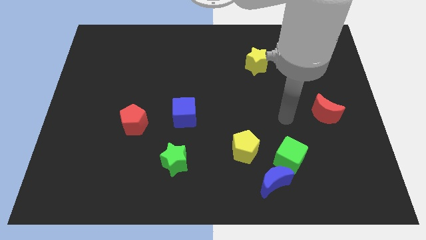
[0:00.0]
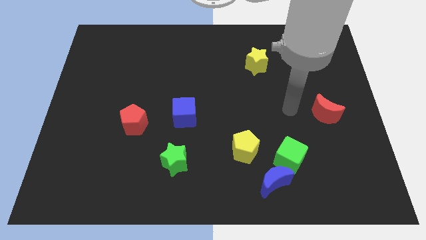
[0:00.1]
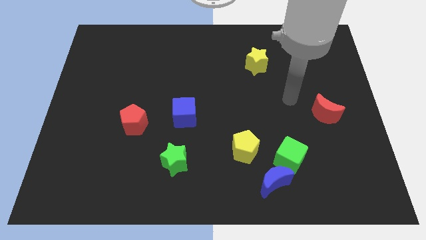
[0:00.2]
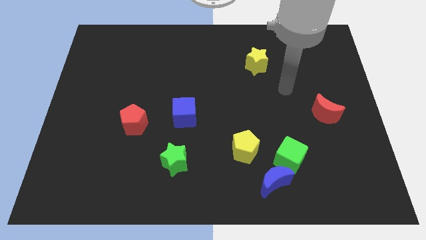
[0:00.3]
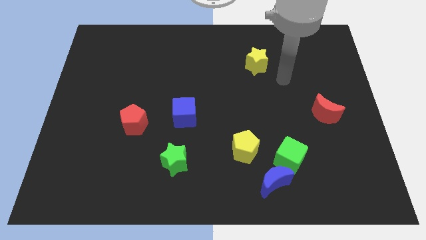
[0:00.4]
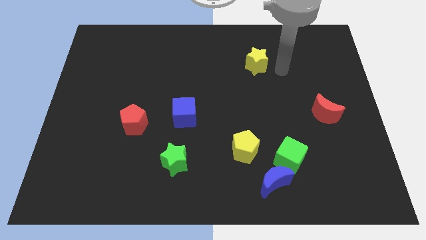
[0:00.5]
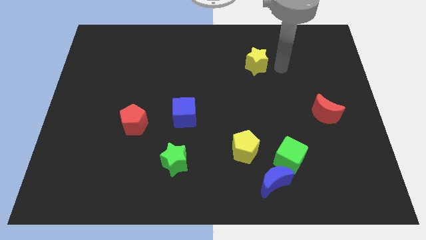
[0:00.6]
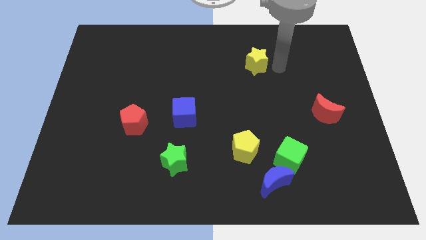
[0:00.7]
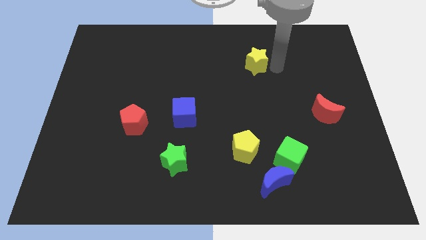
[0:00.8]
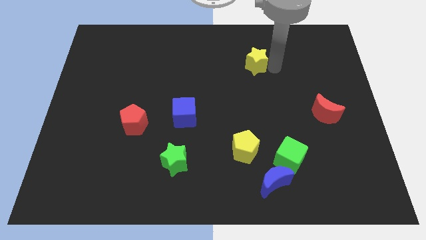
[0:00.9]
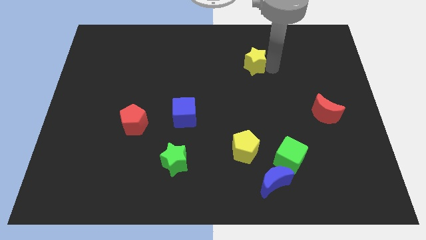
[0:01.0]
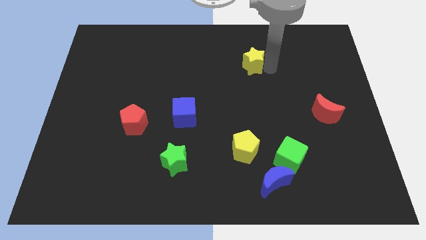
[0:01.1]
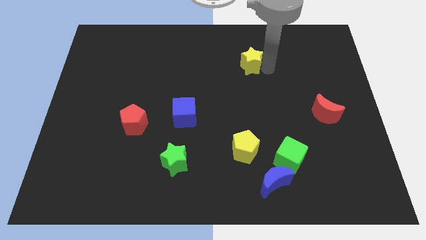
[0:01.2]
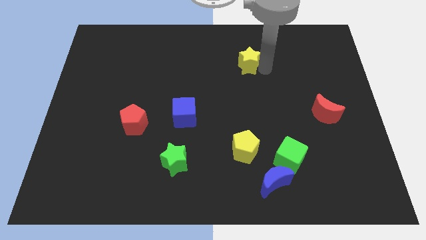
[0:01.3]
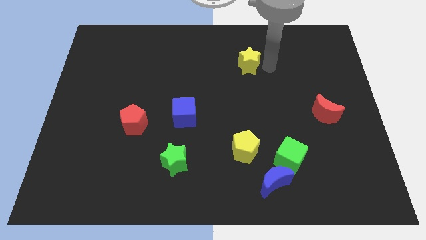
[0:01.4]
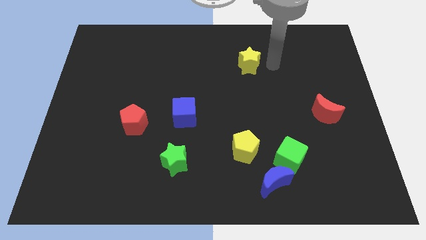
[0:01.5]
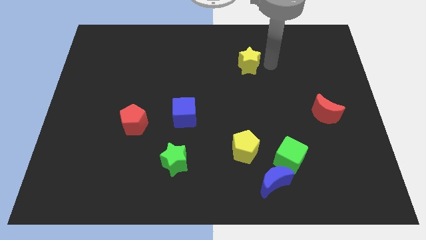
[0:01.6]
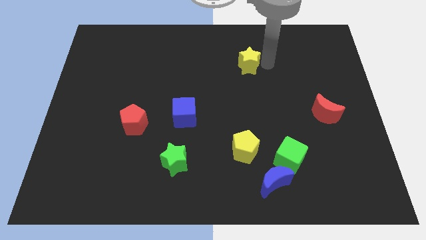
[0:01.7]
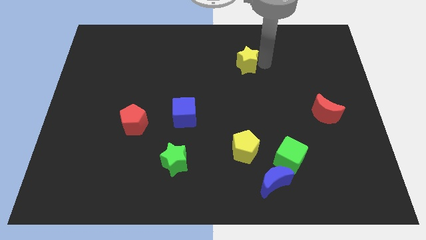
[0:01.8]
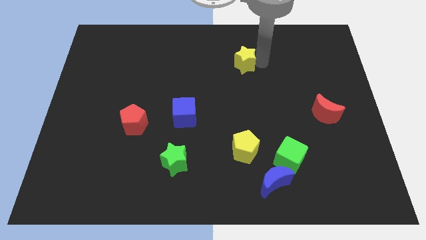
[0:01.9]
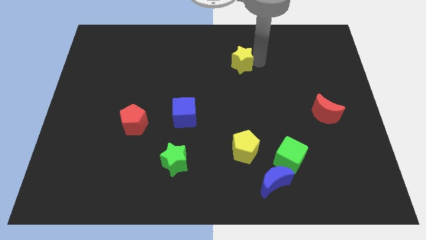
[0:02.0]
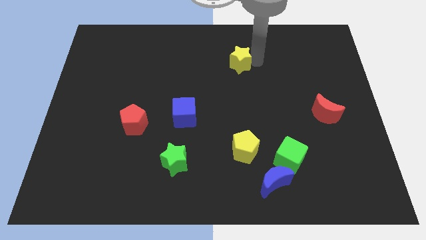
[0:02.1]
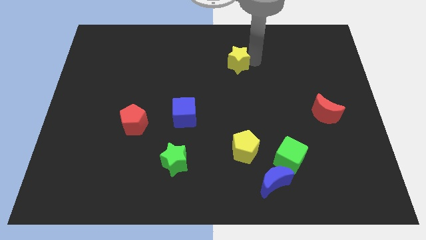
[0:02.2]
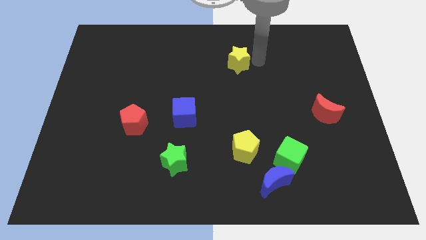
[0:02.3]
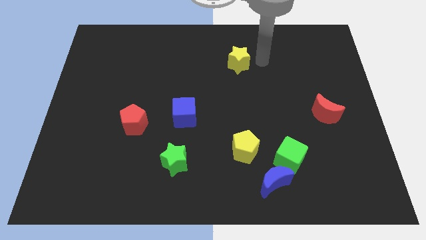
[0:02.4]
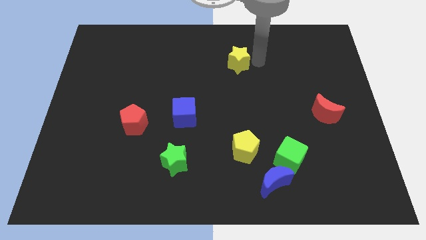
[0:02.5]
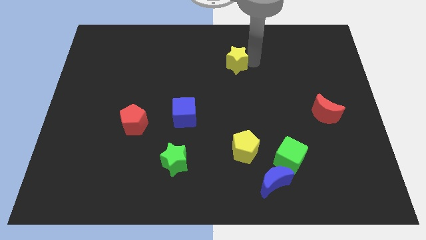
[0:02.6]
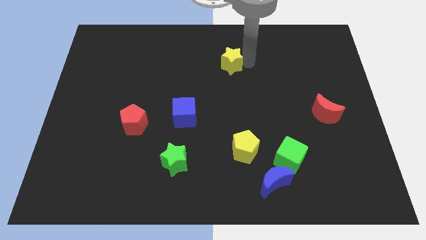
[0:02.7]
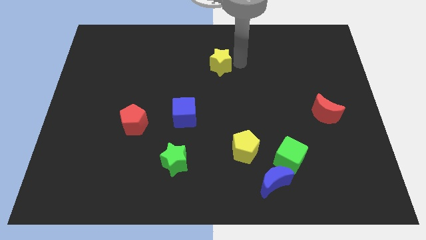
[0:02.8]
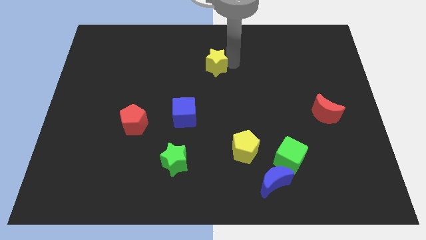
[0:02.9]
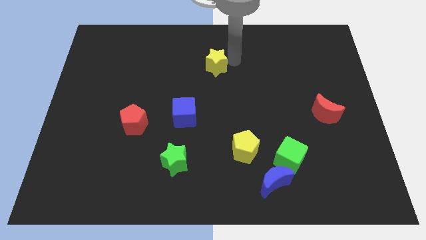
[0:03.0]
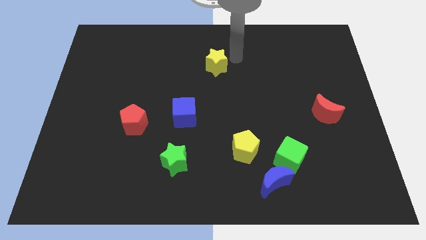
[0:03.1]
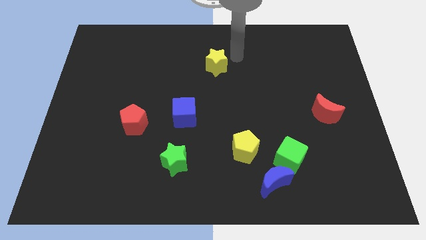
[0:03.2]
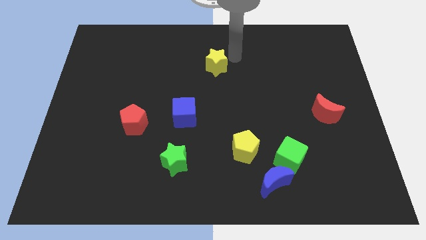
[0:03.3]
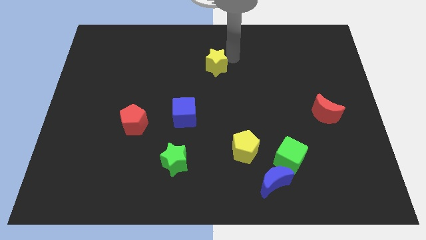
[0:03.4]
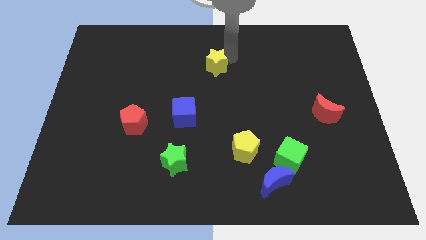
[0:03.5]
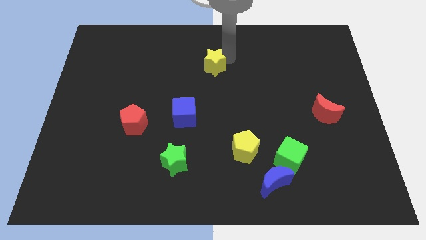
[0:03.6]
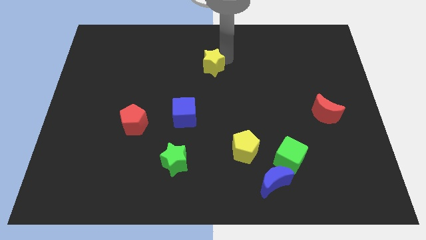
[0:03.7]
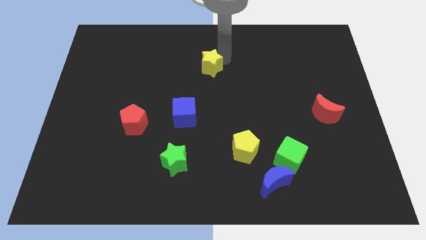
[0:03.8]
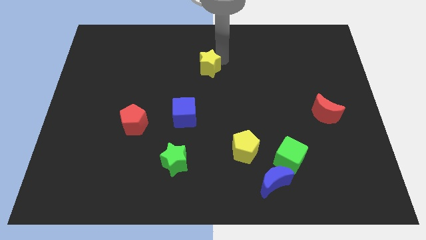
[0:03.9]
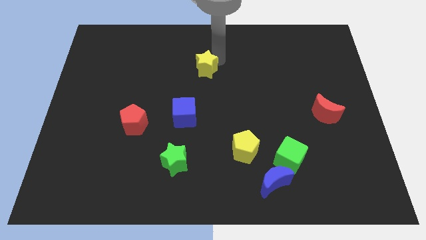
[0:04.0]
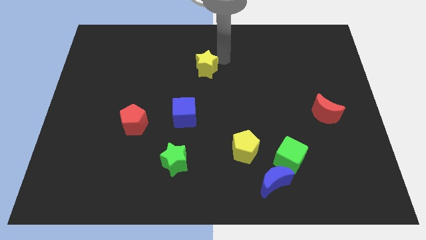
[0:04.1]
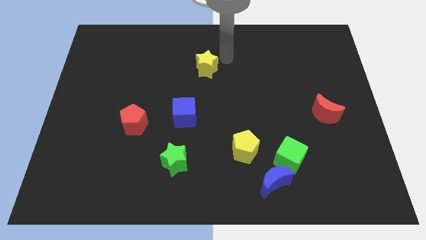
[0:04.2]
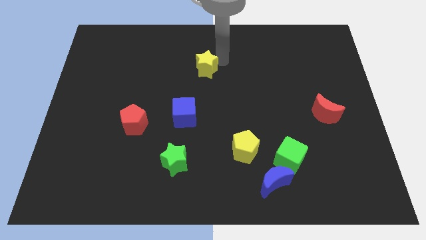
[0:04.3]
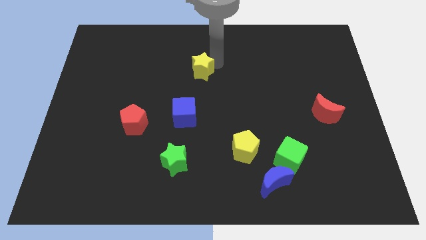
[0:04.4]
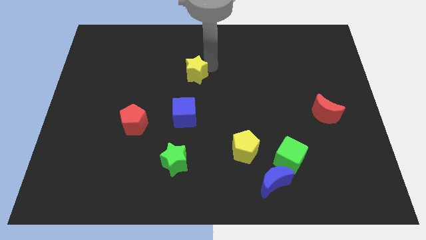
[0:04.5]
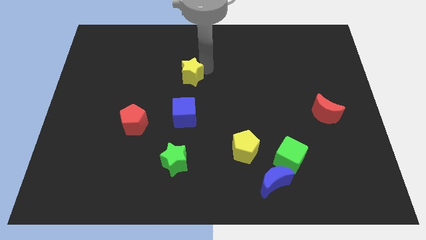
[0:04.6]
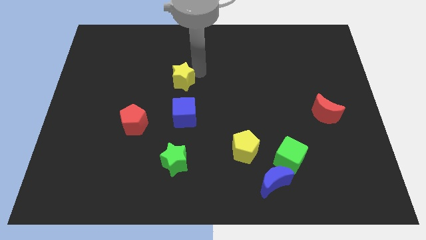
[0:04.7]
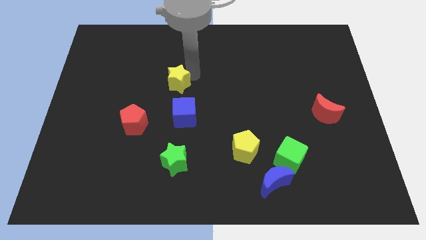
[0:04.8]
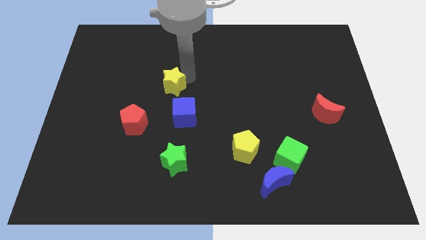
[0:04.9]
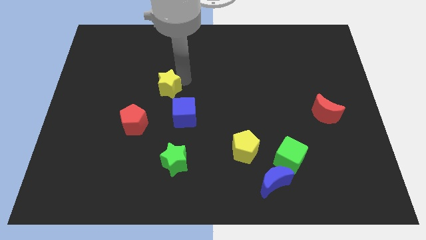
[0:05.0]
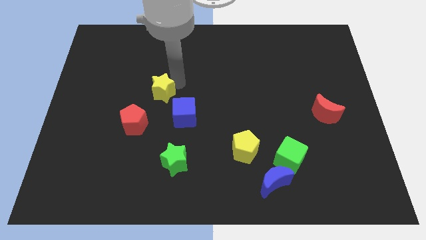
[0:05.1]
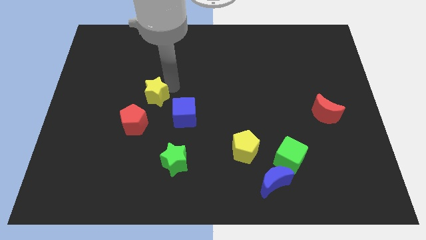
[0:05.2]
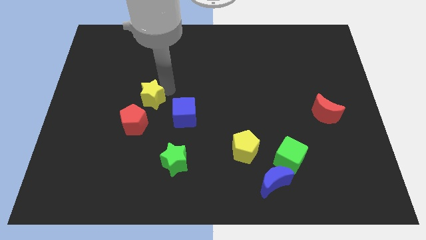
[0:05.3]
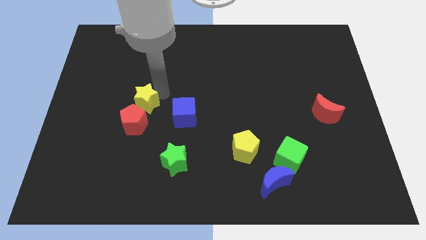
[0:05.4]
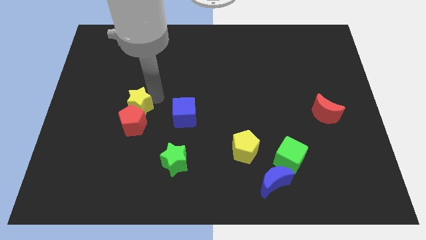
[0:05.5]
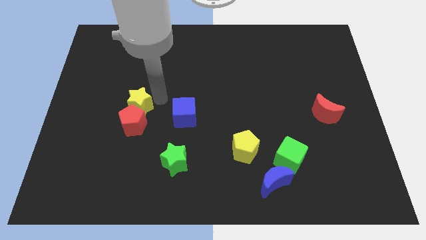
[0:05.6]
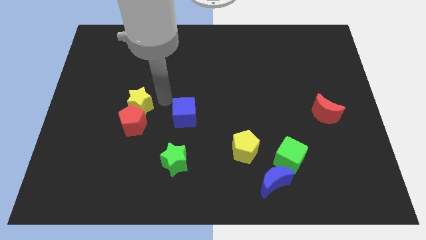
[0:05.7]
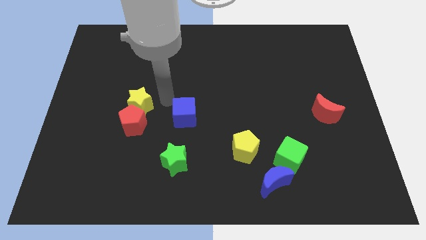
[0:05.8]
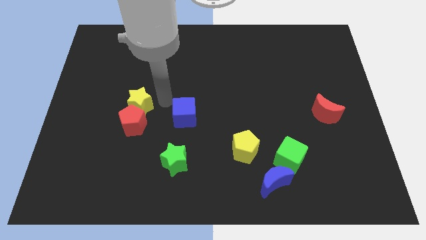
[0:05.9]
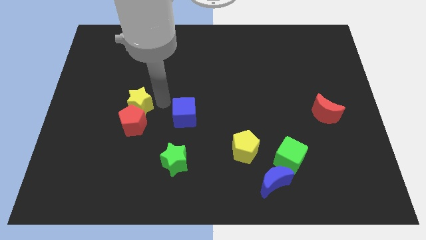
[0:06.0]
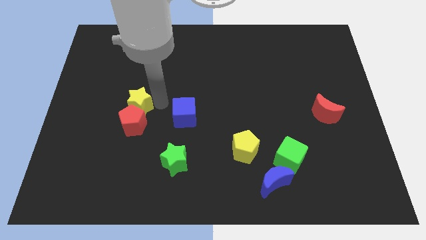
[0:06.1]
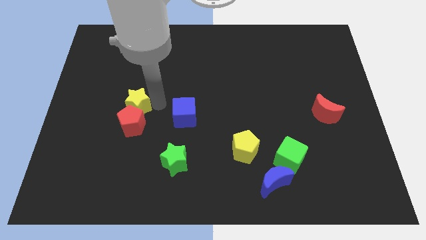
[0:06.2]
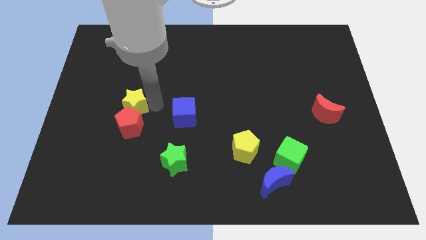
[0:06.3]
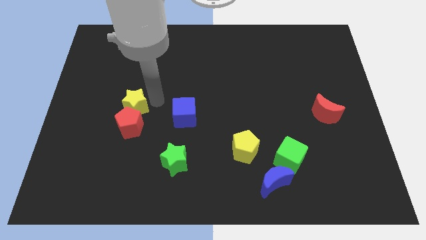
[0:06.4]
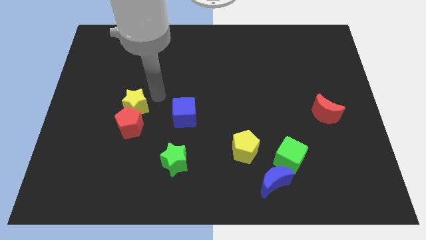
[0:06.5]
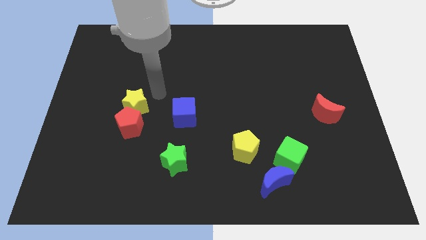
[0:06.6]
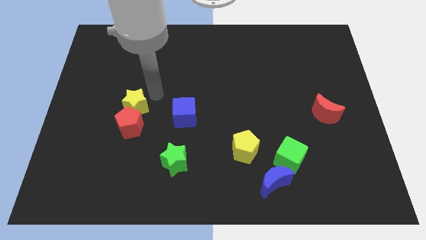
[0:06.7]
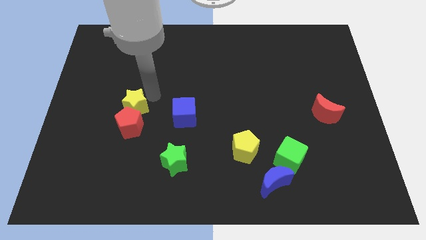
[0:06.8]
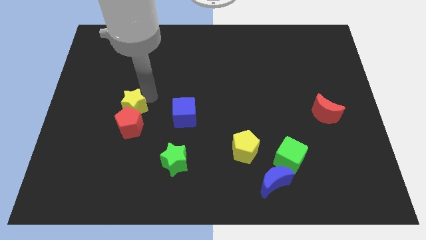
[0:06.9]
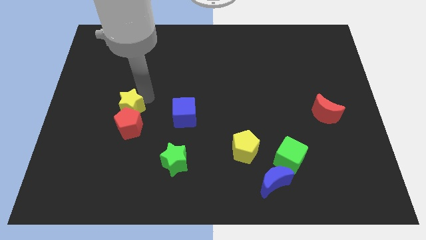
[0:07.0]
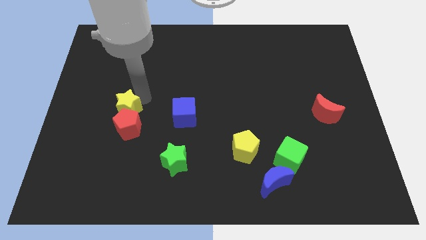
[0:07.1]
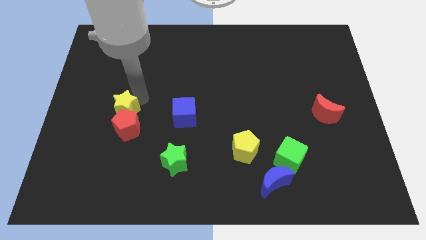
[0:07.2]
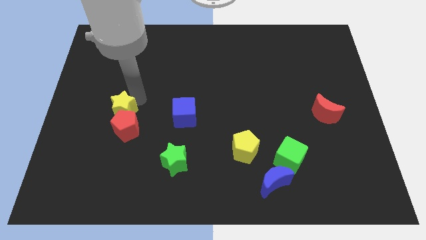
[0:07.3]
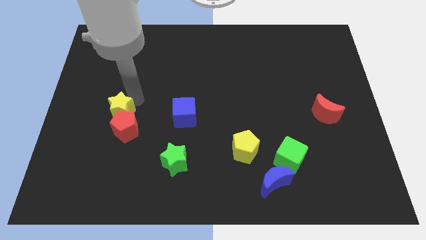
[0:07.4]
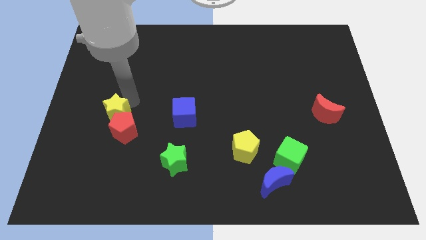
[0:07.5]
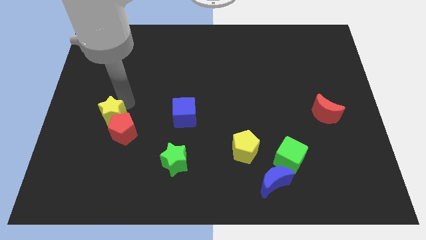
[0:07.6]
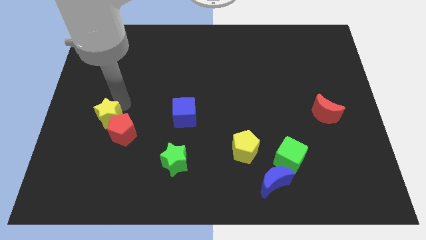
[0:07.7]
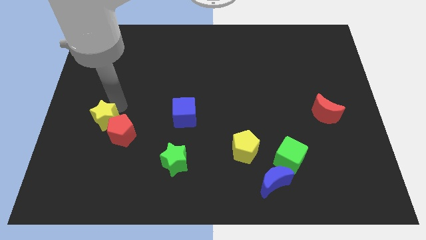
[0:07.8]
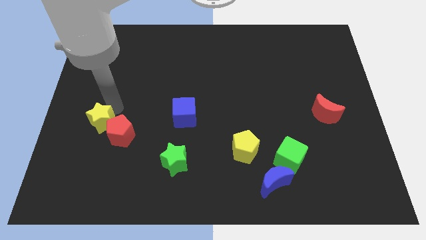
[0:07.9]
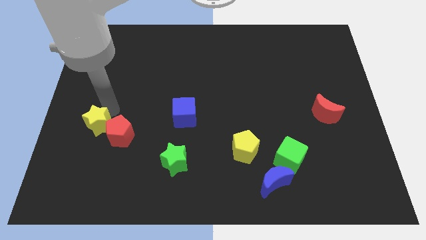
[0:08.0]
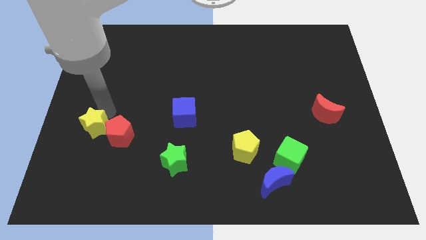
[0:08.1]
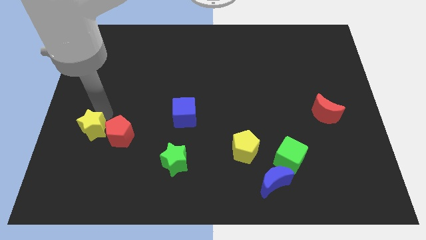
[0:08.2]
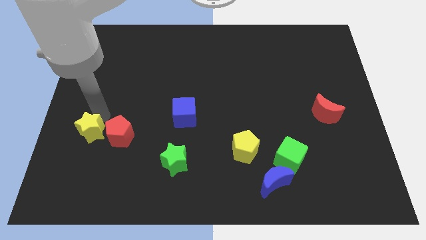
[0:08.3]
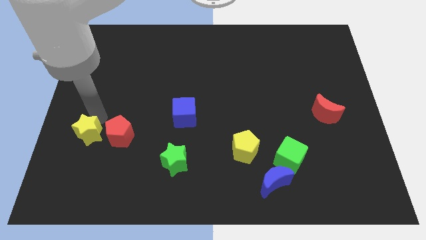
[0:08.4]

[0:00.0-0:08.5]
put the yellow star diagonally down and to the left of the red pentagon
